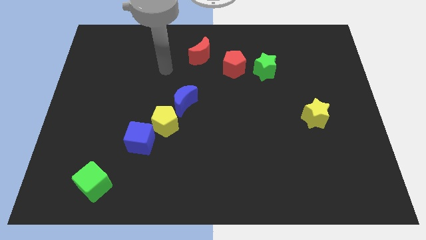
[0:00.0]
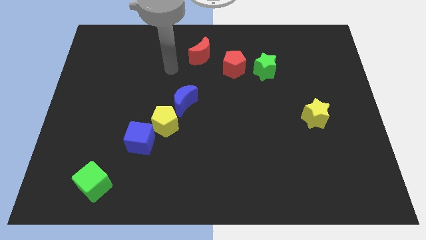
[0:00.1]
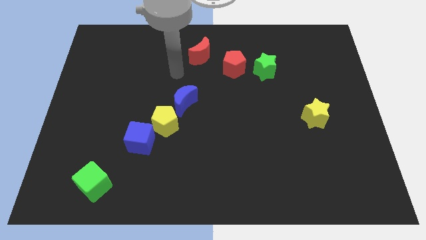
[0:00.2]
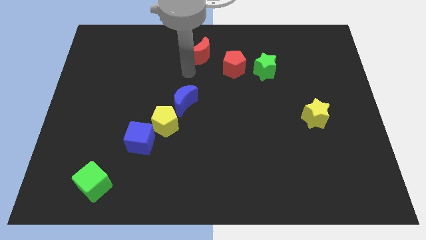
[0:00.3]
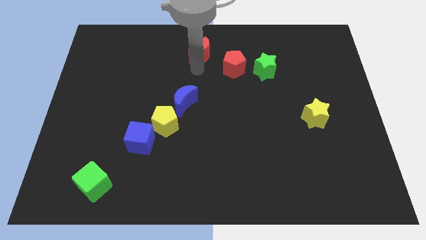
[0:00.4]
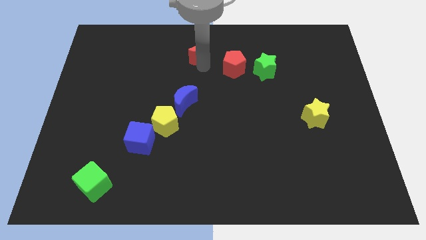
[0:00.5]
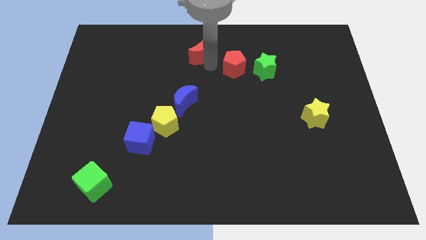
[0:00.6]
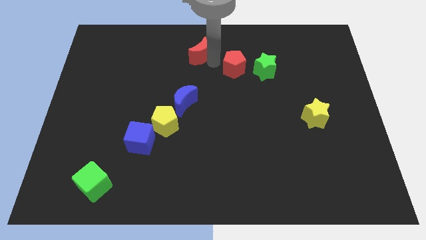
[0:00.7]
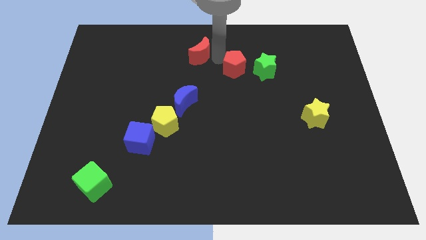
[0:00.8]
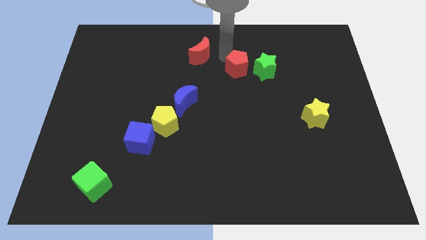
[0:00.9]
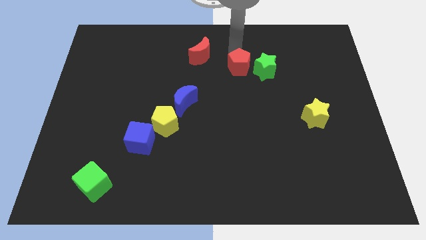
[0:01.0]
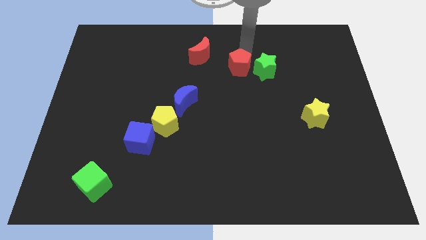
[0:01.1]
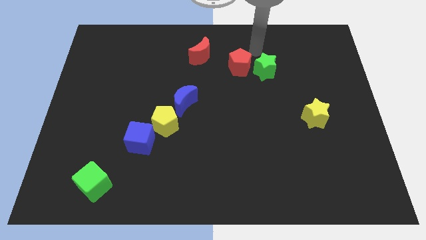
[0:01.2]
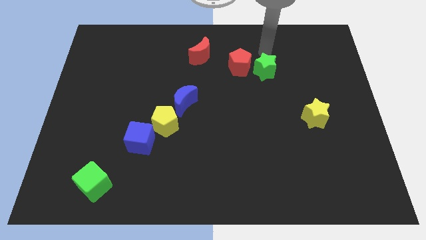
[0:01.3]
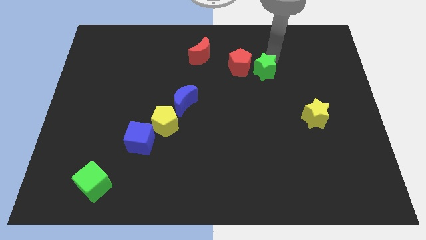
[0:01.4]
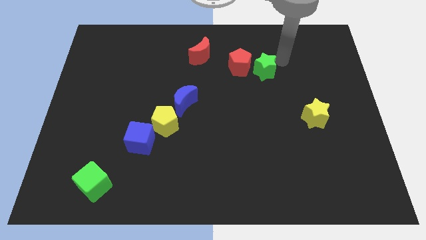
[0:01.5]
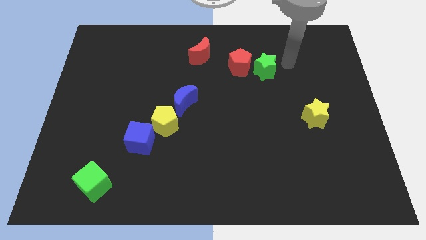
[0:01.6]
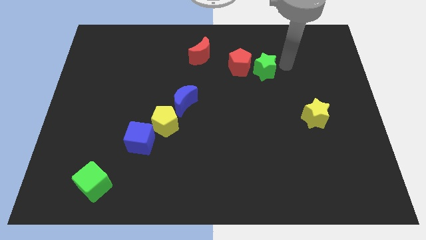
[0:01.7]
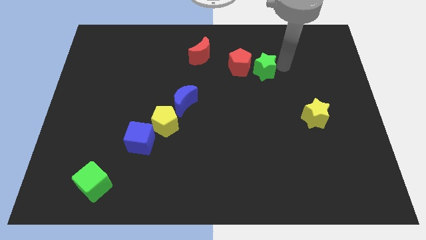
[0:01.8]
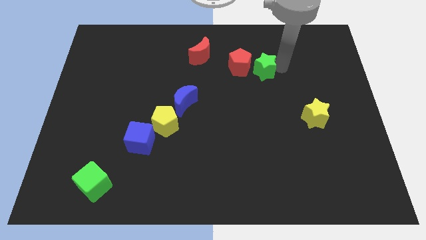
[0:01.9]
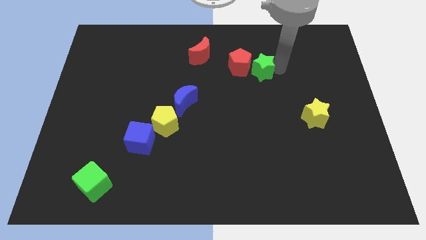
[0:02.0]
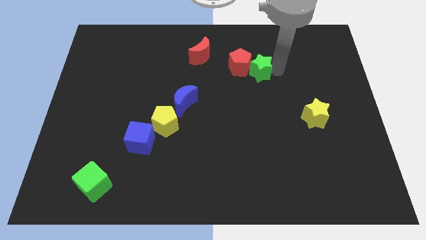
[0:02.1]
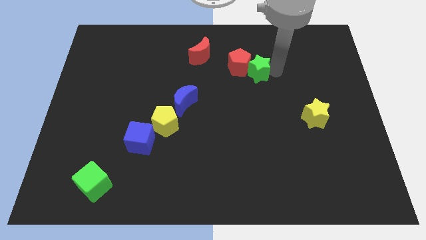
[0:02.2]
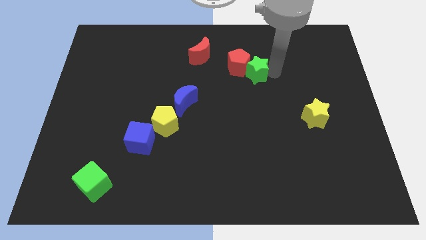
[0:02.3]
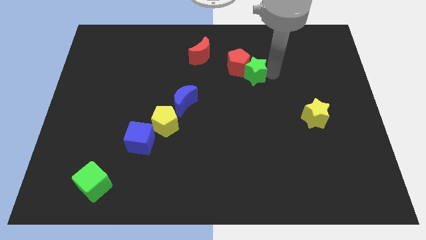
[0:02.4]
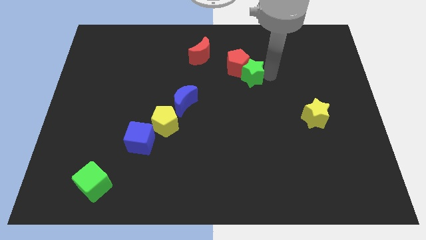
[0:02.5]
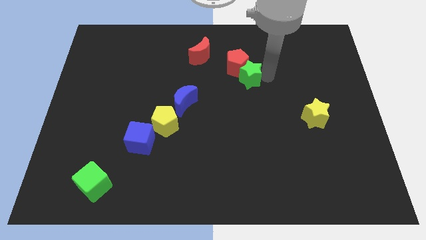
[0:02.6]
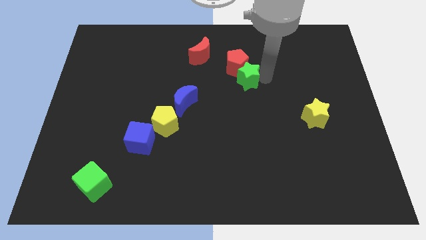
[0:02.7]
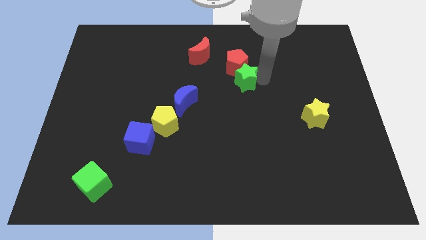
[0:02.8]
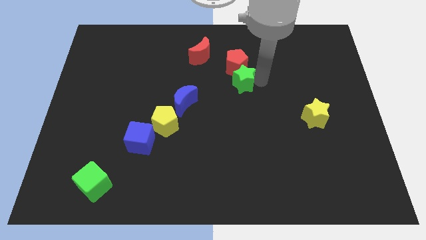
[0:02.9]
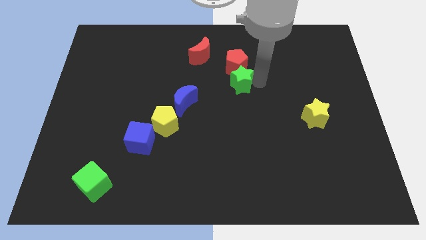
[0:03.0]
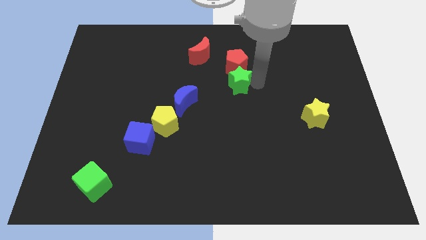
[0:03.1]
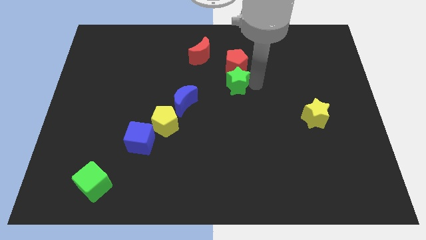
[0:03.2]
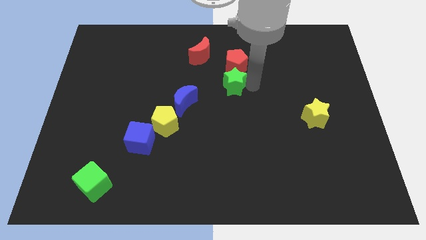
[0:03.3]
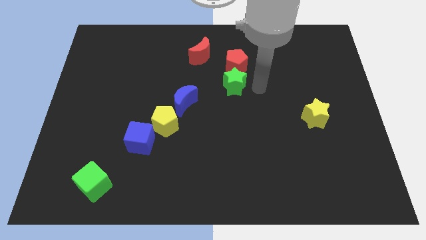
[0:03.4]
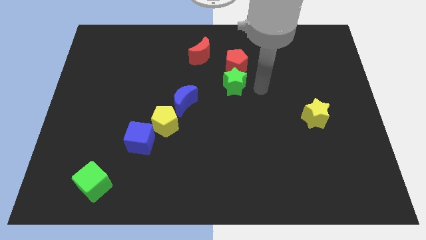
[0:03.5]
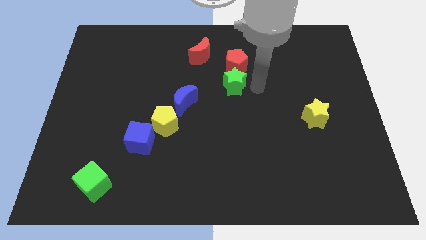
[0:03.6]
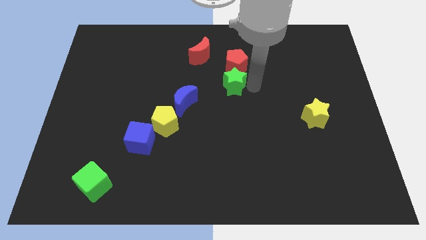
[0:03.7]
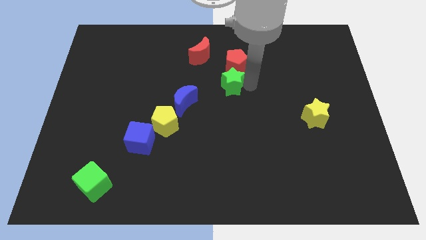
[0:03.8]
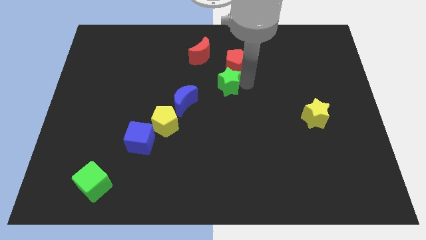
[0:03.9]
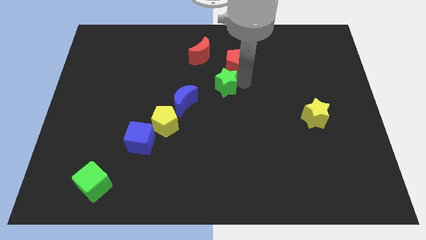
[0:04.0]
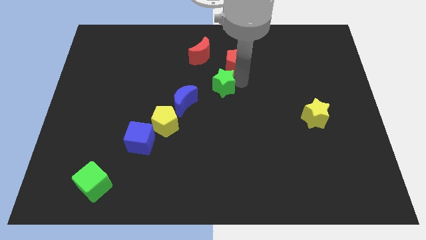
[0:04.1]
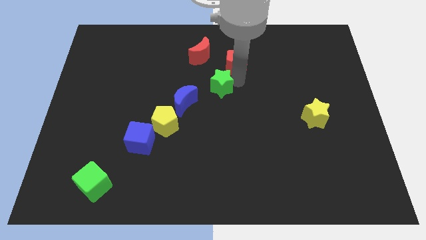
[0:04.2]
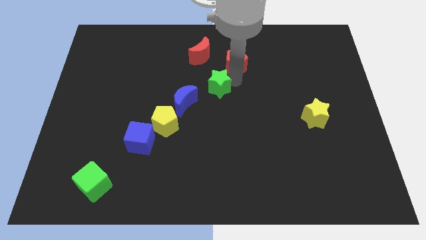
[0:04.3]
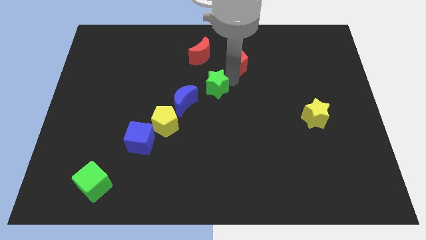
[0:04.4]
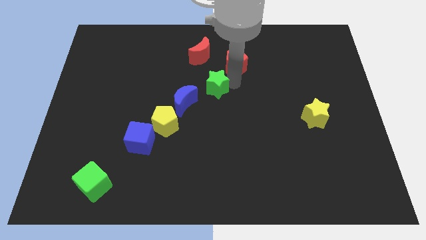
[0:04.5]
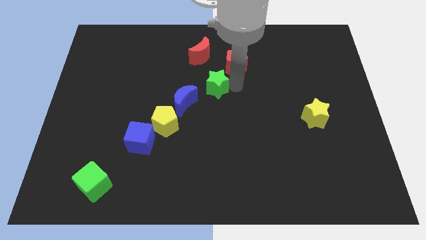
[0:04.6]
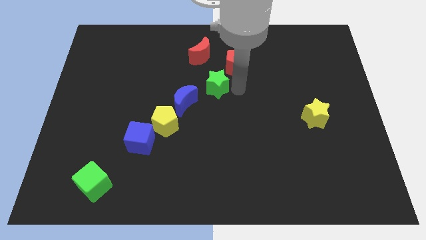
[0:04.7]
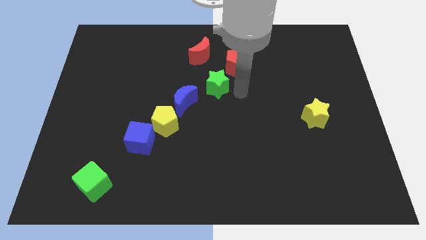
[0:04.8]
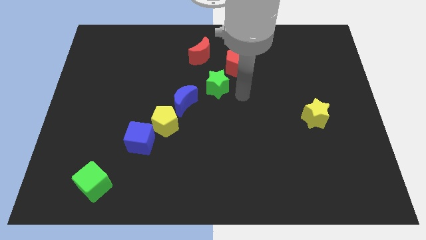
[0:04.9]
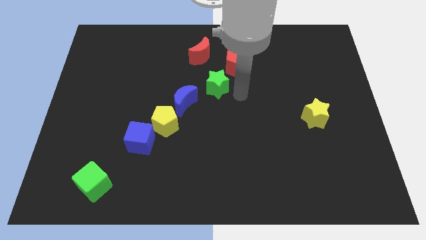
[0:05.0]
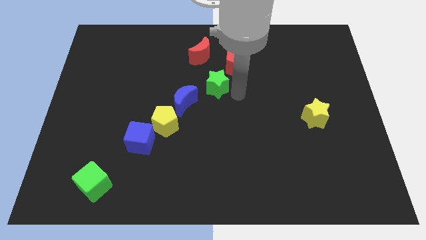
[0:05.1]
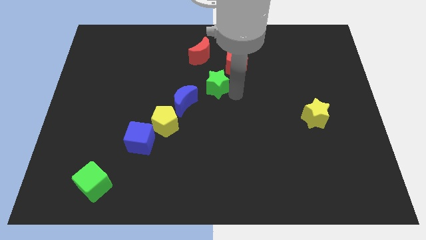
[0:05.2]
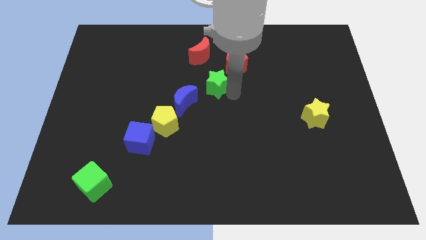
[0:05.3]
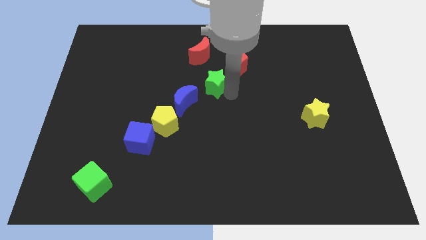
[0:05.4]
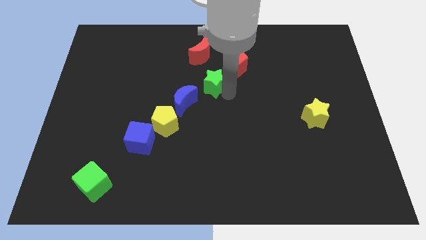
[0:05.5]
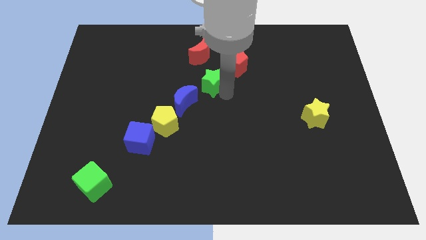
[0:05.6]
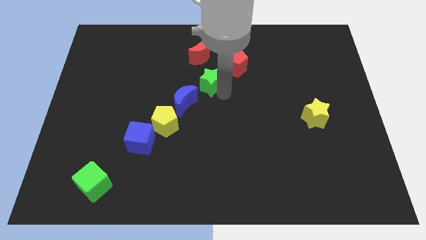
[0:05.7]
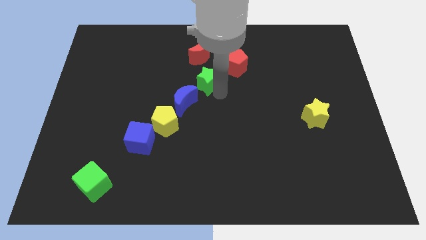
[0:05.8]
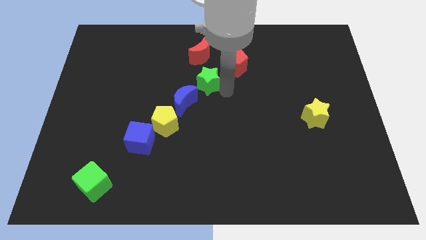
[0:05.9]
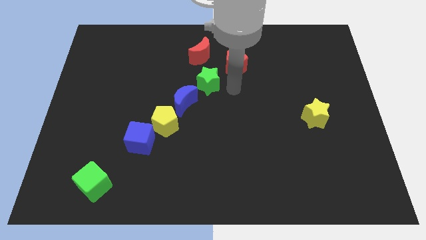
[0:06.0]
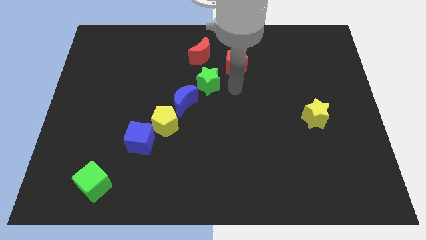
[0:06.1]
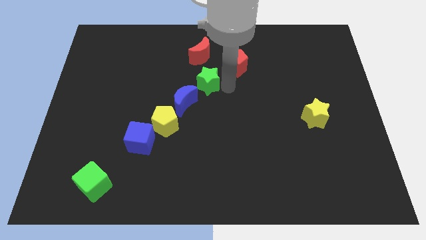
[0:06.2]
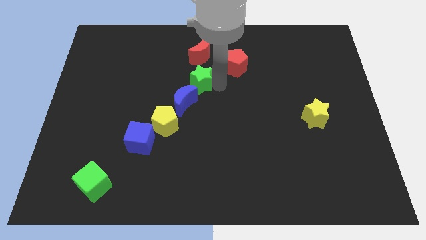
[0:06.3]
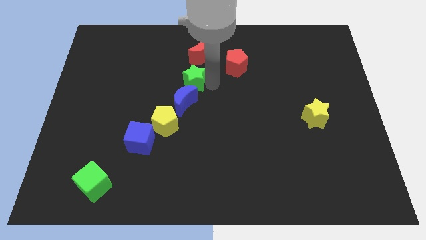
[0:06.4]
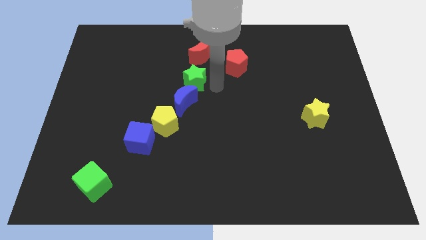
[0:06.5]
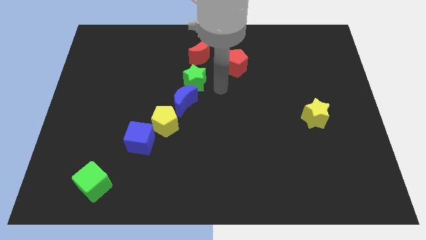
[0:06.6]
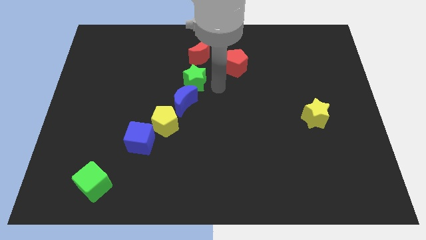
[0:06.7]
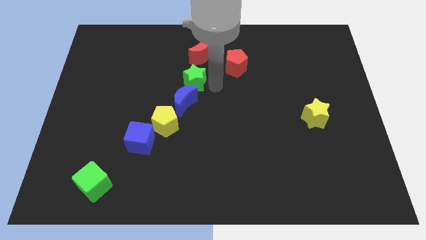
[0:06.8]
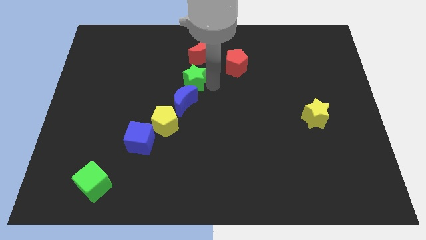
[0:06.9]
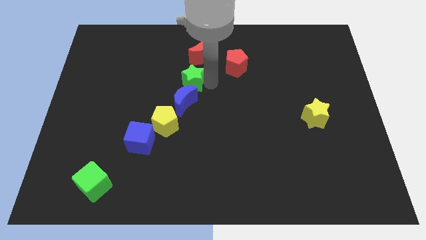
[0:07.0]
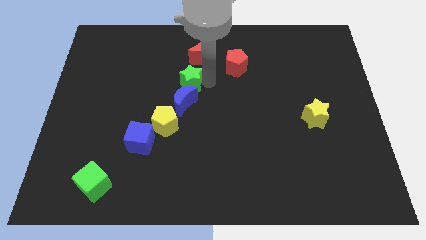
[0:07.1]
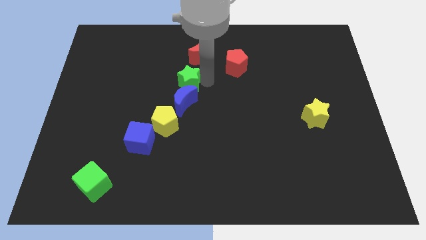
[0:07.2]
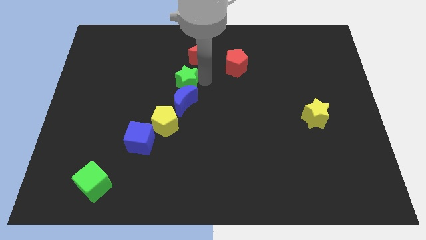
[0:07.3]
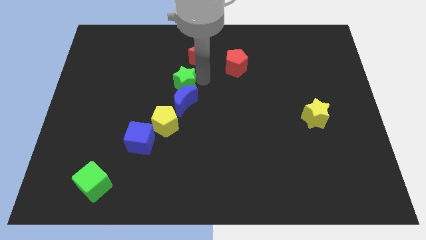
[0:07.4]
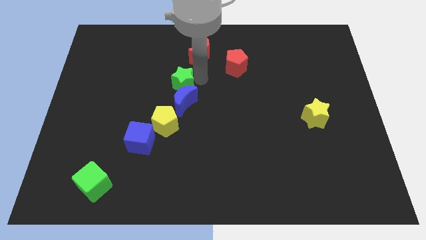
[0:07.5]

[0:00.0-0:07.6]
slide the green star to the left

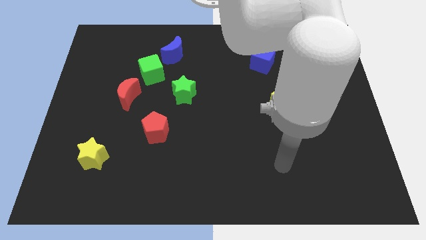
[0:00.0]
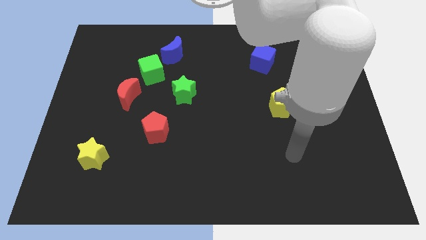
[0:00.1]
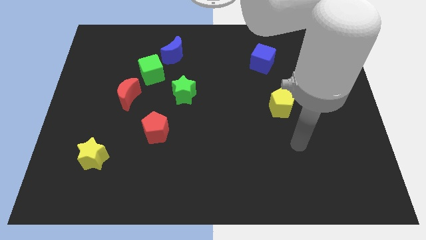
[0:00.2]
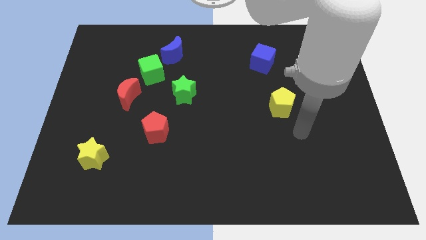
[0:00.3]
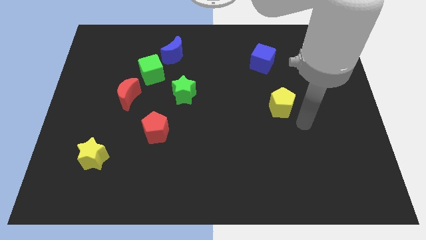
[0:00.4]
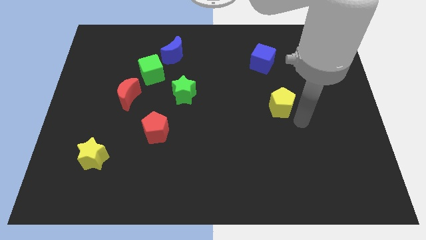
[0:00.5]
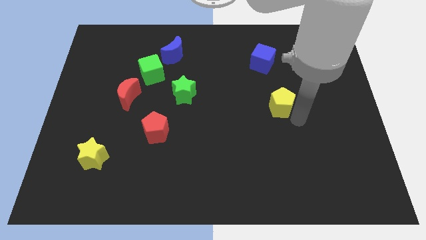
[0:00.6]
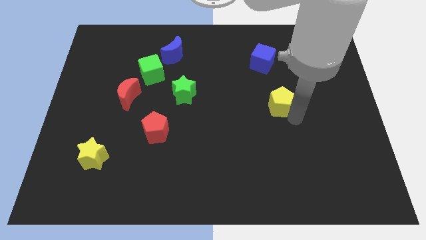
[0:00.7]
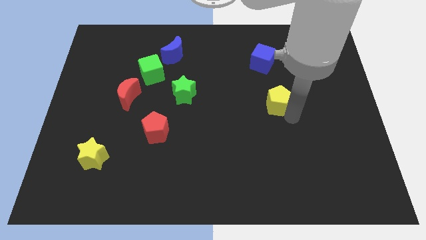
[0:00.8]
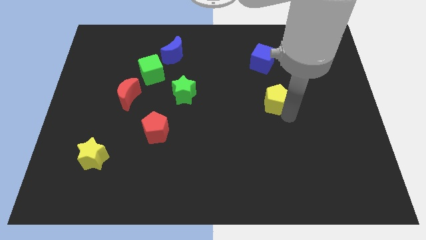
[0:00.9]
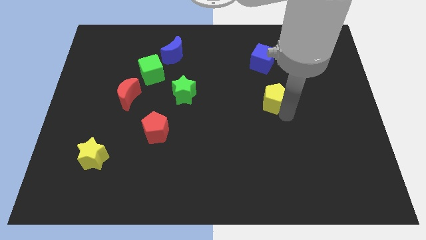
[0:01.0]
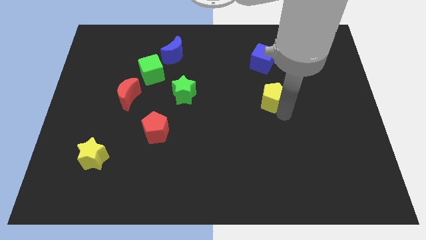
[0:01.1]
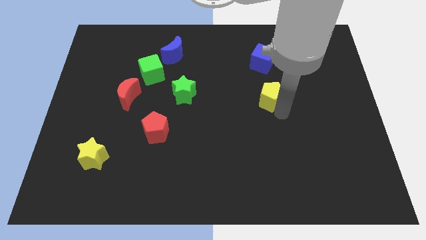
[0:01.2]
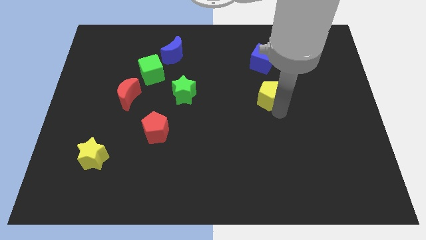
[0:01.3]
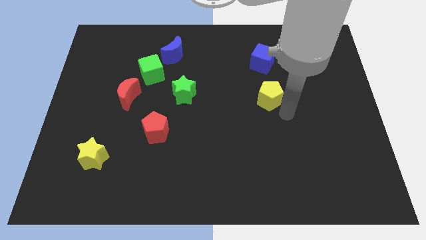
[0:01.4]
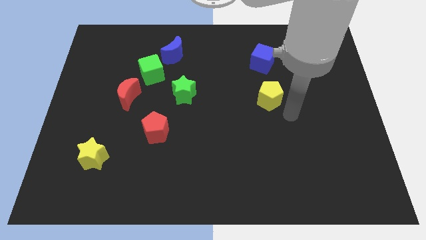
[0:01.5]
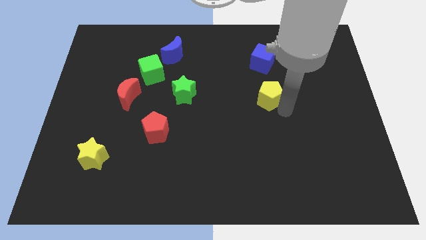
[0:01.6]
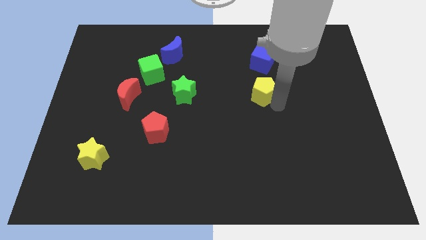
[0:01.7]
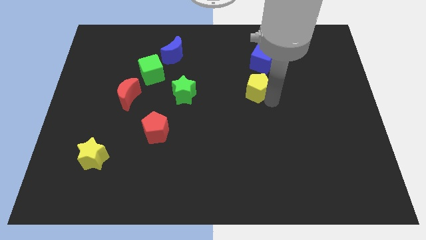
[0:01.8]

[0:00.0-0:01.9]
push the yellow pentagon a little bit diagonally up and left
